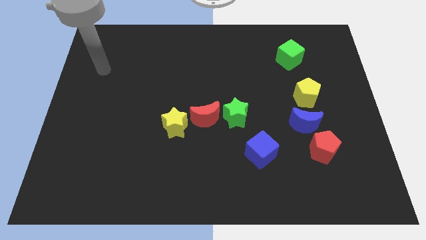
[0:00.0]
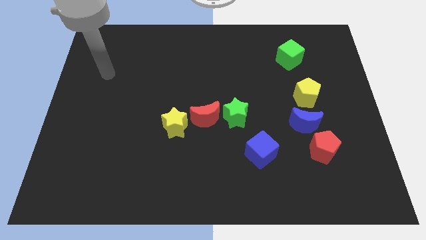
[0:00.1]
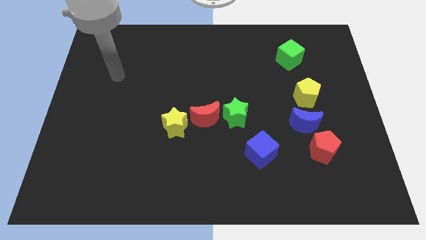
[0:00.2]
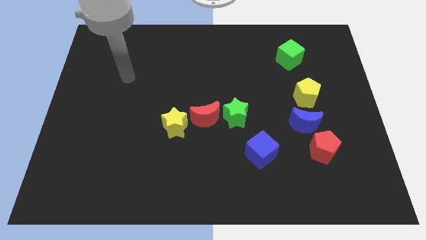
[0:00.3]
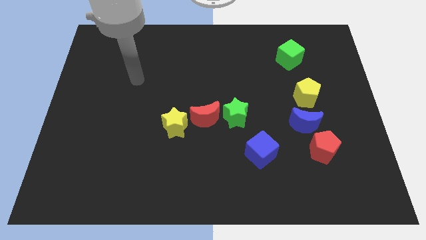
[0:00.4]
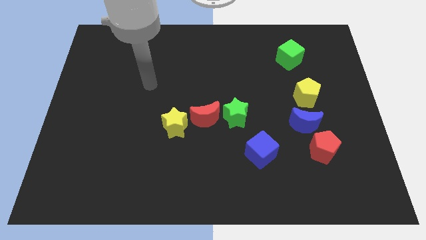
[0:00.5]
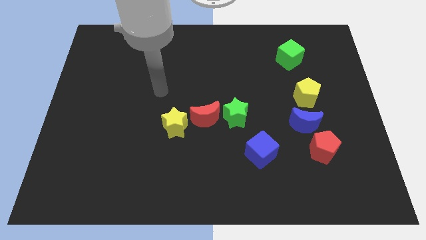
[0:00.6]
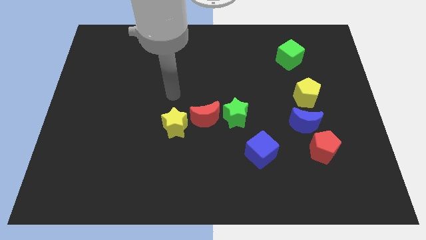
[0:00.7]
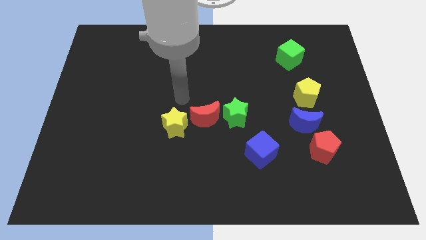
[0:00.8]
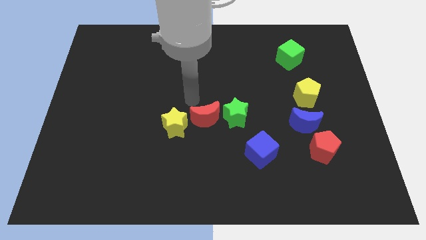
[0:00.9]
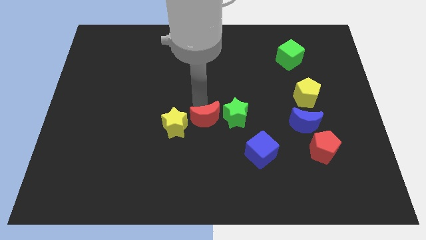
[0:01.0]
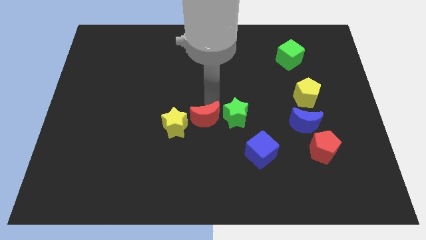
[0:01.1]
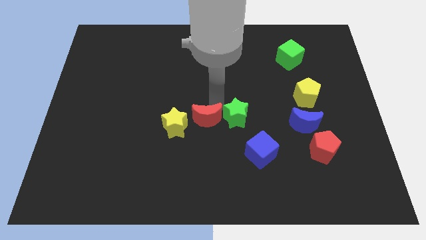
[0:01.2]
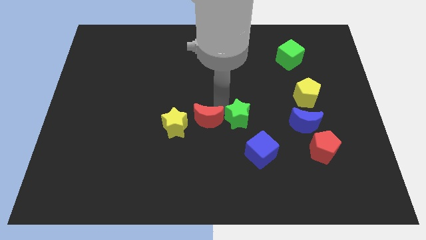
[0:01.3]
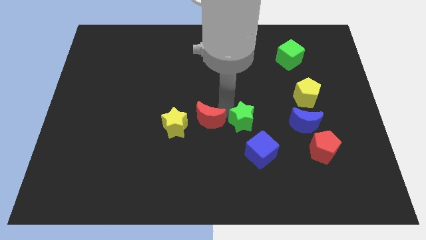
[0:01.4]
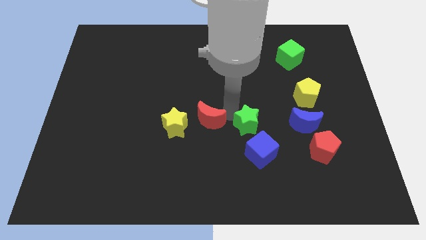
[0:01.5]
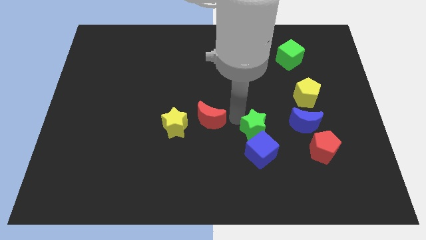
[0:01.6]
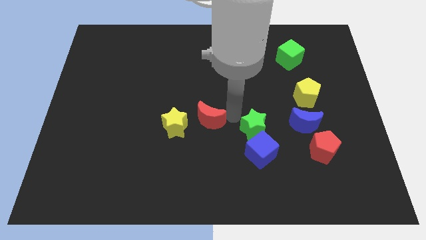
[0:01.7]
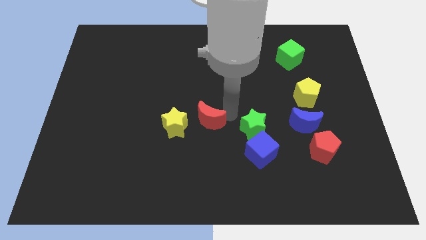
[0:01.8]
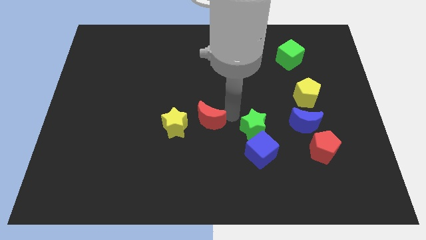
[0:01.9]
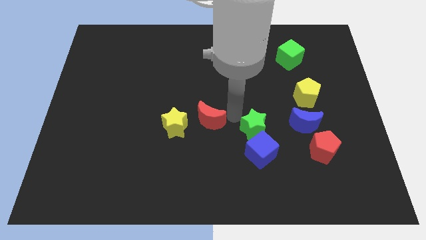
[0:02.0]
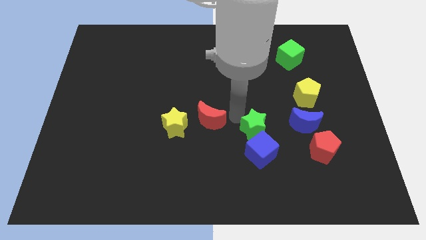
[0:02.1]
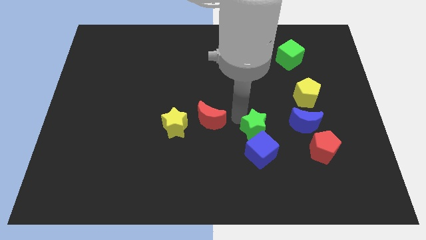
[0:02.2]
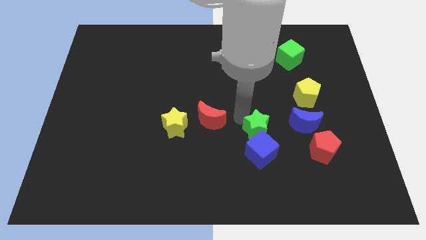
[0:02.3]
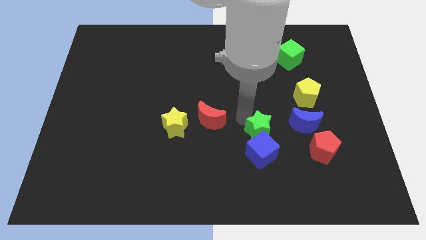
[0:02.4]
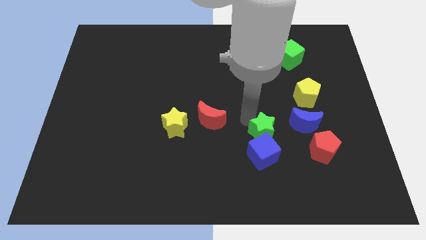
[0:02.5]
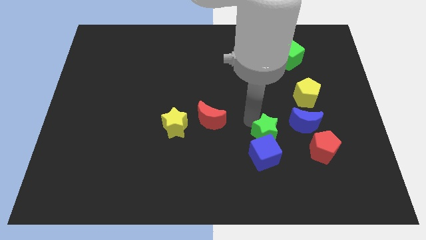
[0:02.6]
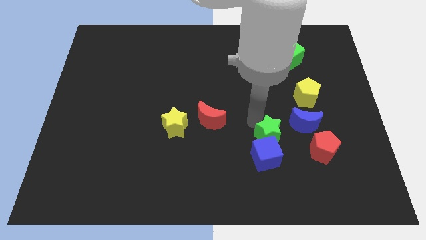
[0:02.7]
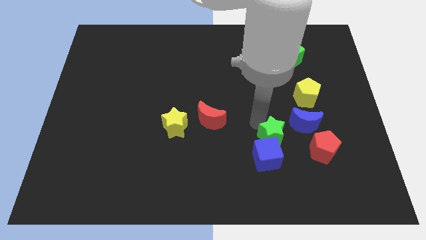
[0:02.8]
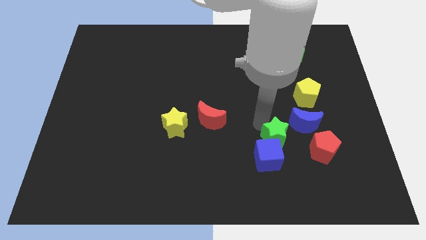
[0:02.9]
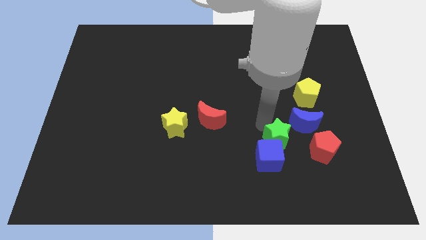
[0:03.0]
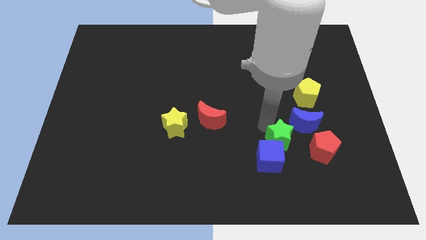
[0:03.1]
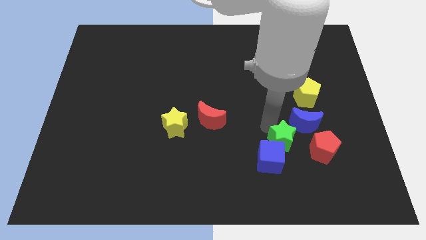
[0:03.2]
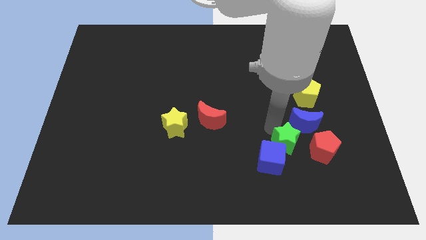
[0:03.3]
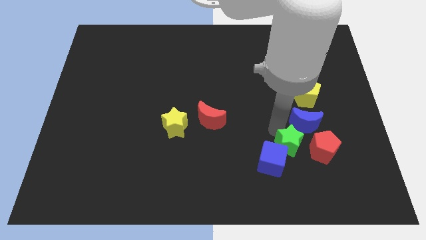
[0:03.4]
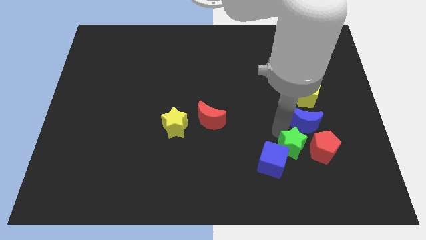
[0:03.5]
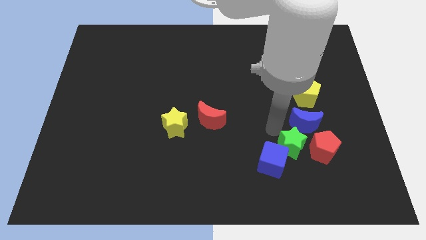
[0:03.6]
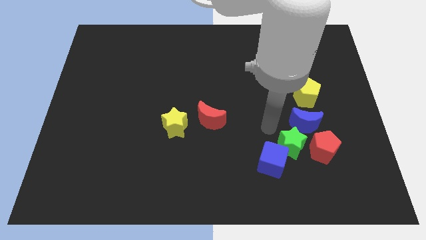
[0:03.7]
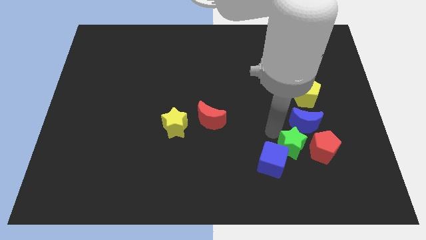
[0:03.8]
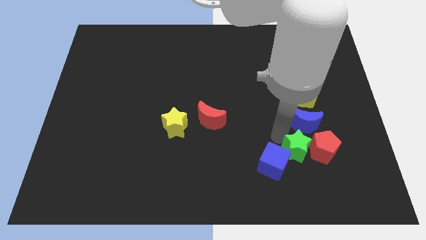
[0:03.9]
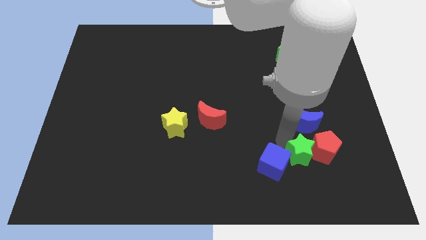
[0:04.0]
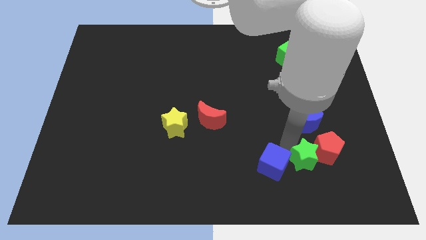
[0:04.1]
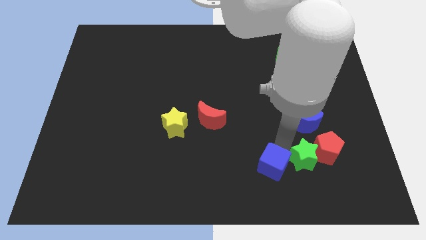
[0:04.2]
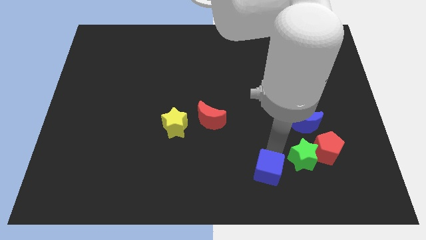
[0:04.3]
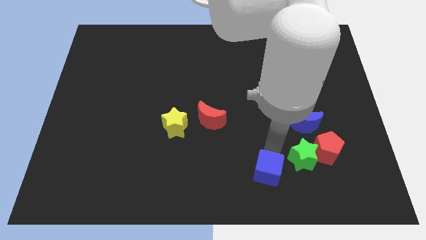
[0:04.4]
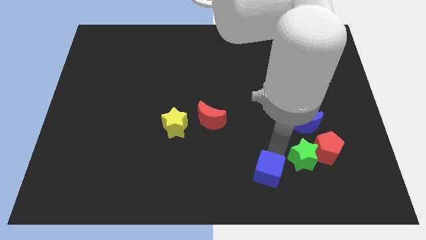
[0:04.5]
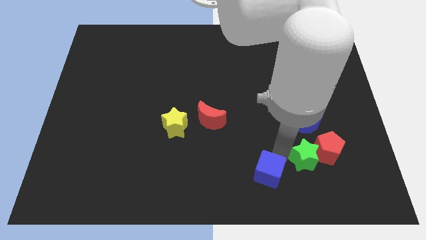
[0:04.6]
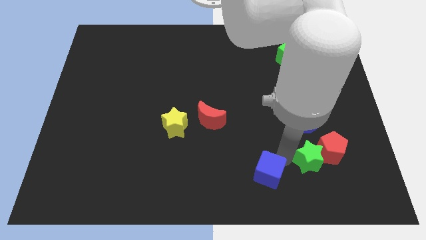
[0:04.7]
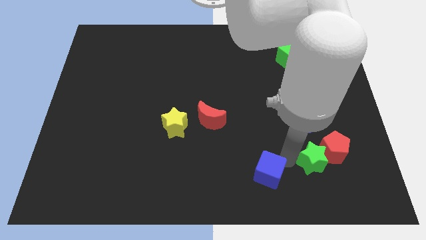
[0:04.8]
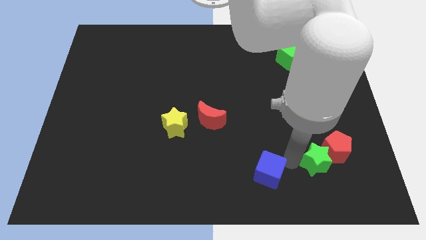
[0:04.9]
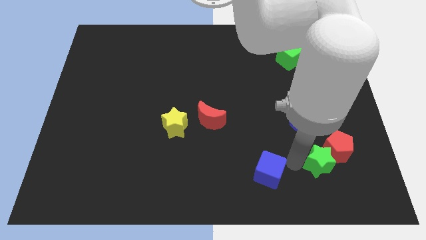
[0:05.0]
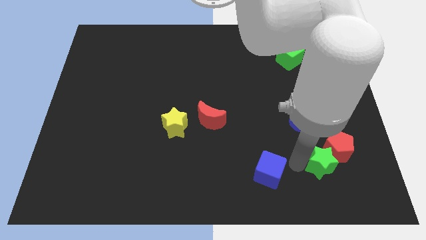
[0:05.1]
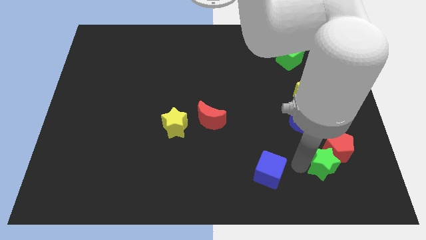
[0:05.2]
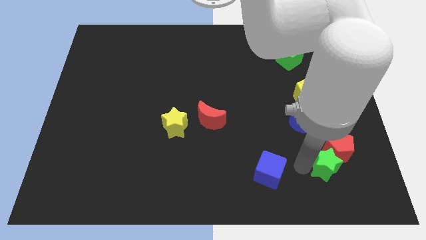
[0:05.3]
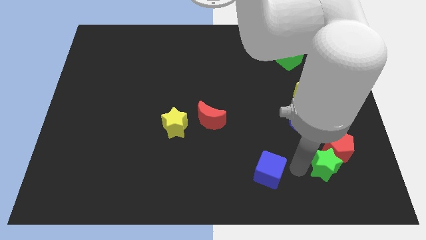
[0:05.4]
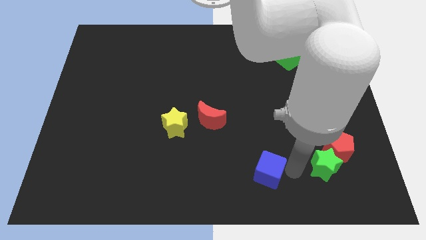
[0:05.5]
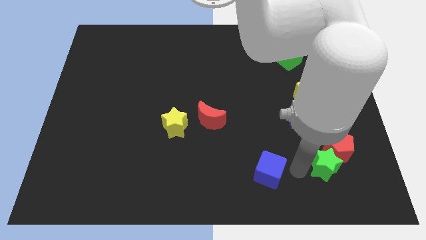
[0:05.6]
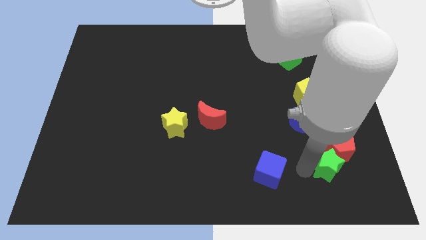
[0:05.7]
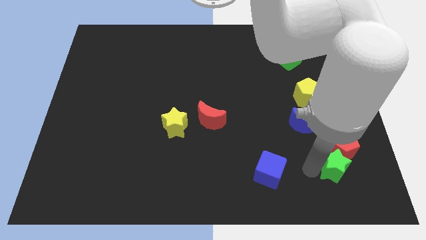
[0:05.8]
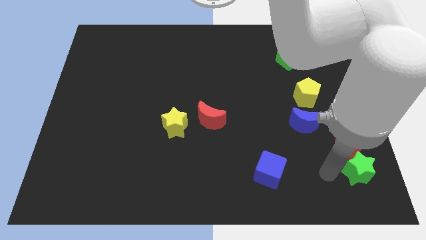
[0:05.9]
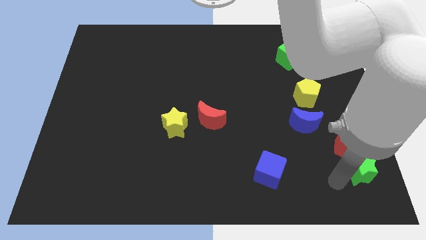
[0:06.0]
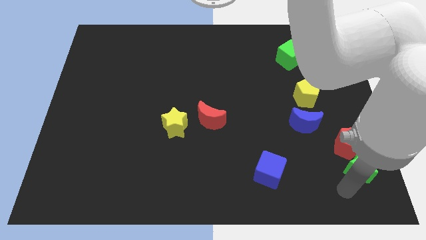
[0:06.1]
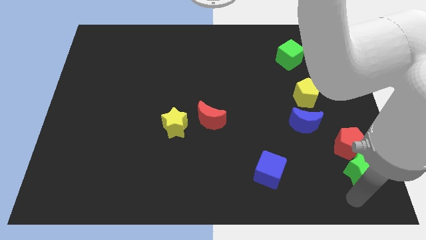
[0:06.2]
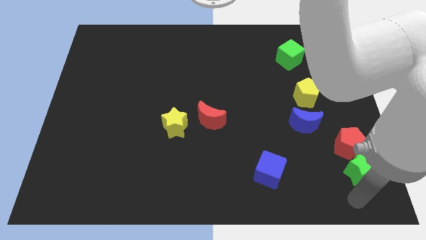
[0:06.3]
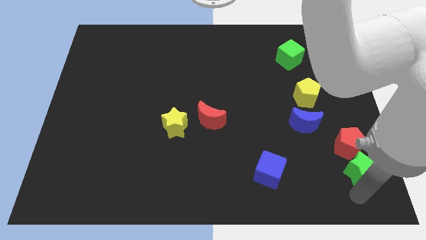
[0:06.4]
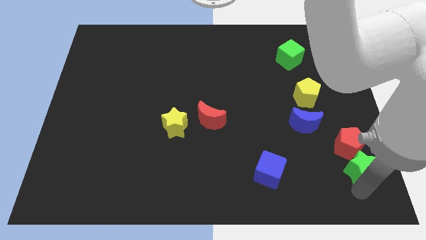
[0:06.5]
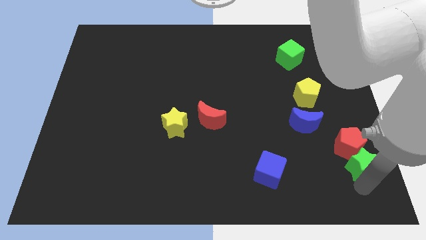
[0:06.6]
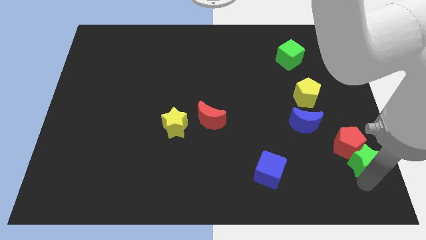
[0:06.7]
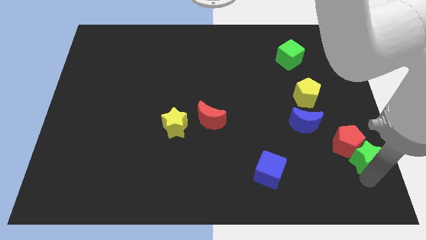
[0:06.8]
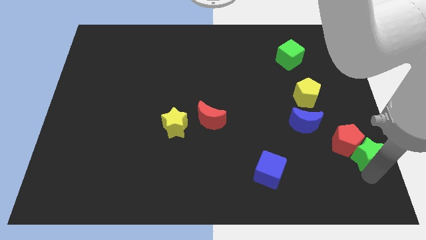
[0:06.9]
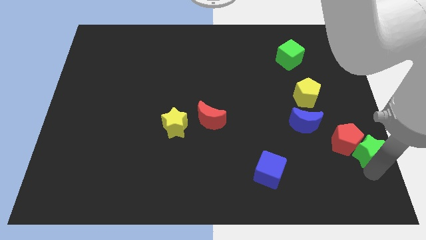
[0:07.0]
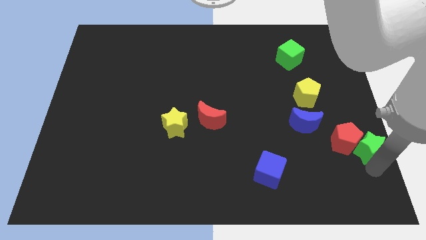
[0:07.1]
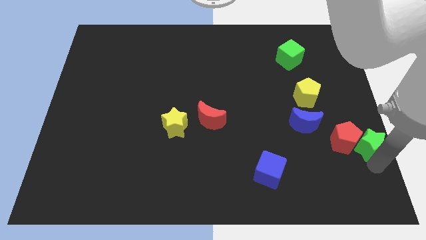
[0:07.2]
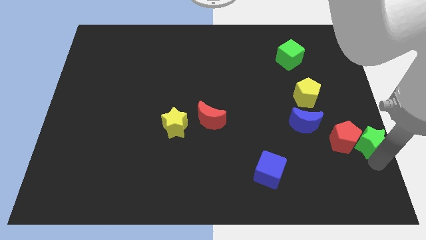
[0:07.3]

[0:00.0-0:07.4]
slide the green star to the top right side of the red pentagon
